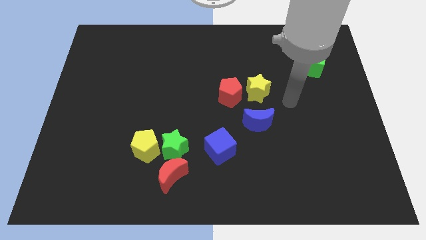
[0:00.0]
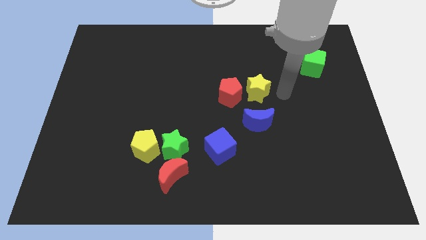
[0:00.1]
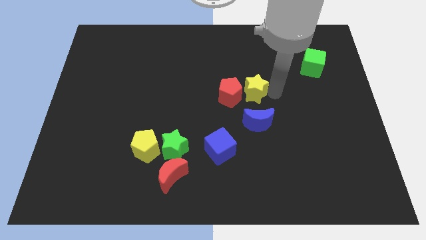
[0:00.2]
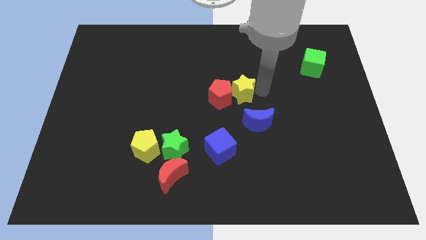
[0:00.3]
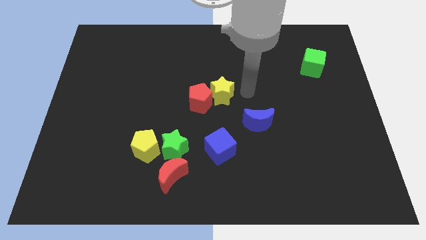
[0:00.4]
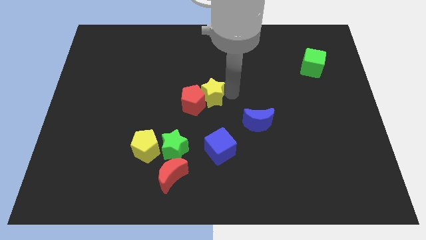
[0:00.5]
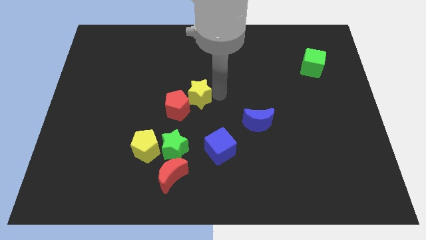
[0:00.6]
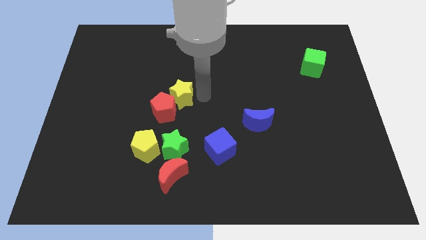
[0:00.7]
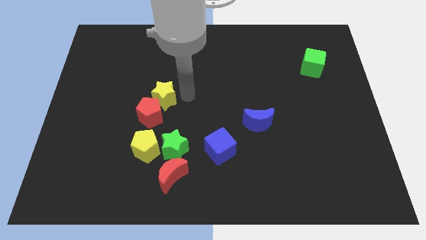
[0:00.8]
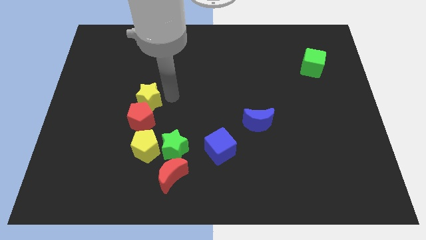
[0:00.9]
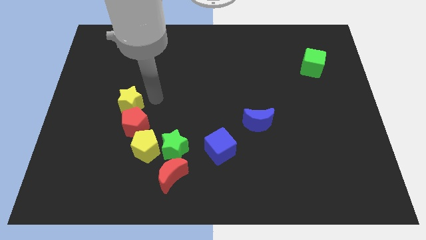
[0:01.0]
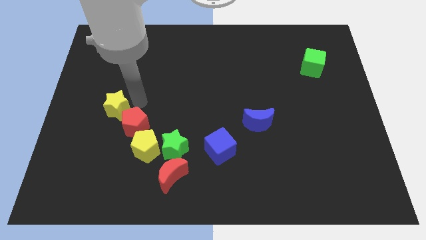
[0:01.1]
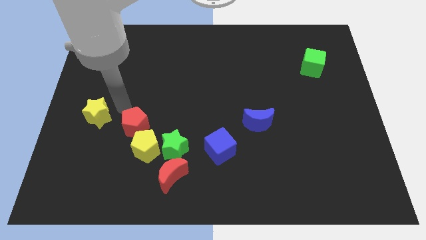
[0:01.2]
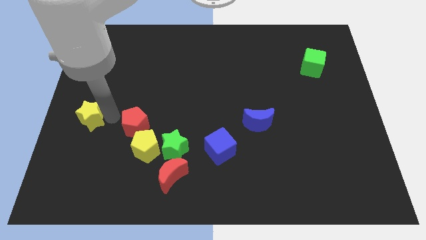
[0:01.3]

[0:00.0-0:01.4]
move the red pentagon away from the yellow star

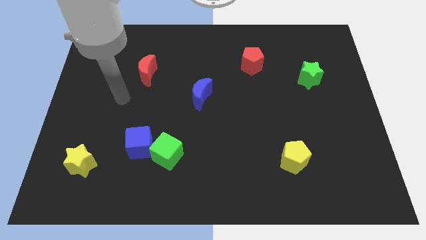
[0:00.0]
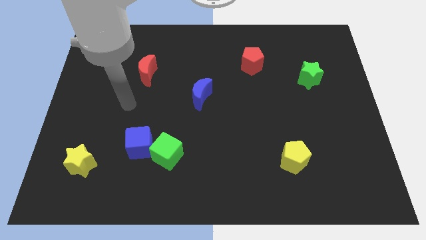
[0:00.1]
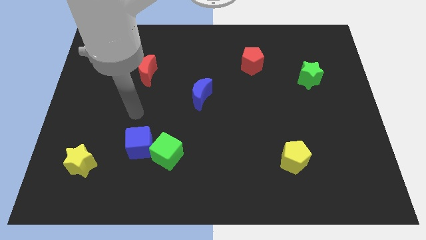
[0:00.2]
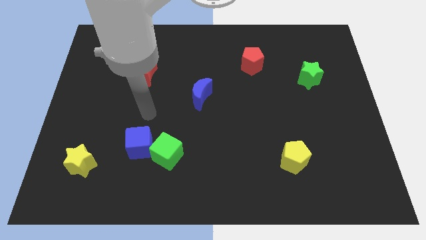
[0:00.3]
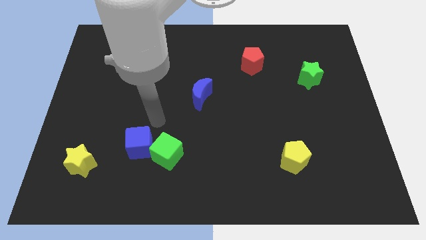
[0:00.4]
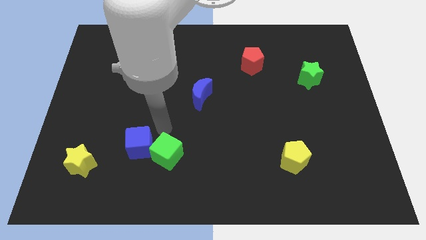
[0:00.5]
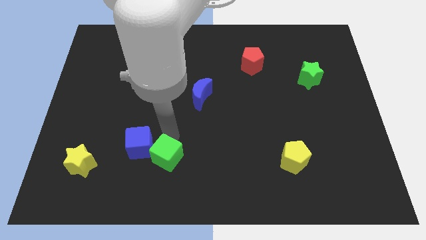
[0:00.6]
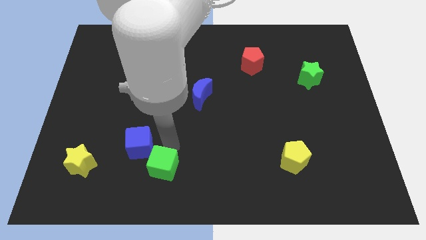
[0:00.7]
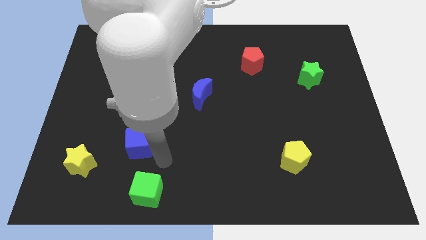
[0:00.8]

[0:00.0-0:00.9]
move the blue cube away from the green cube

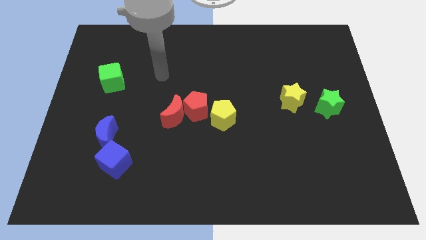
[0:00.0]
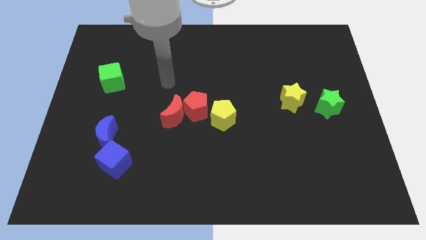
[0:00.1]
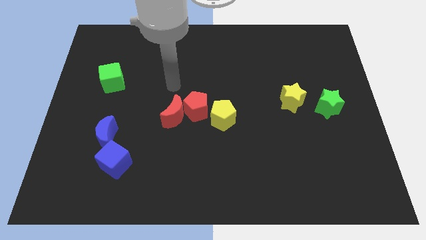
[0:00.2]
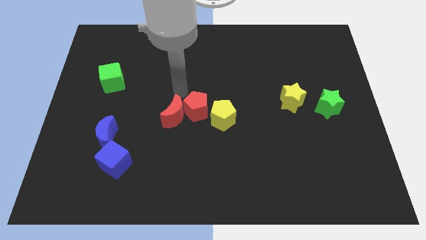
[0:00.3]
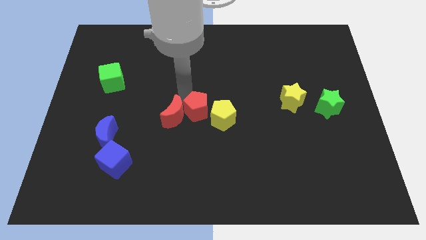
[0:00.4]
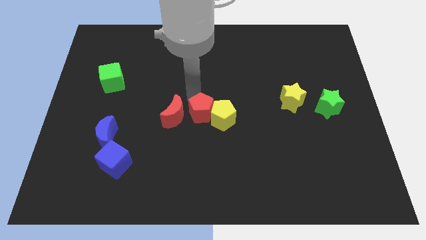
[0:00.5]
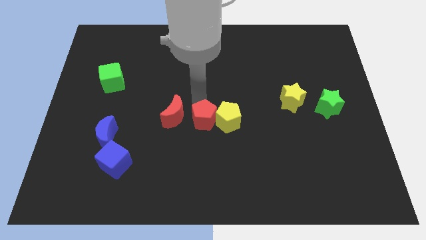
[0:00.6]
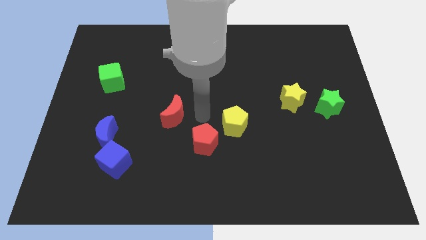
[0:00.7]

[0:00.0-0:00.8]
pull the red moon apart from the red pentagon

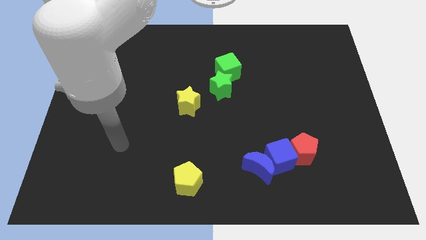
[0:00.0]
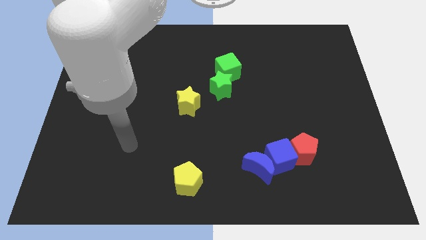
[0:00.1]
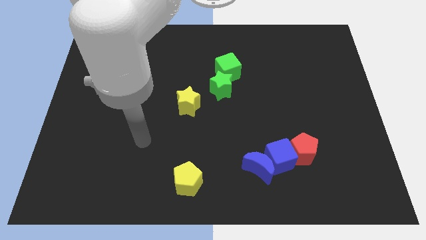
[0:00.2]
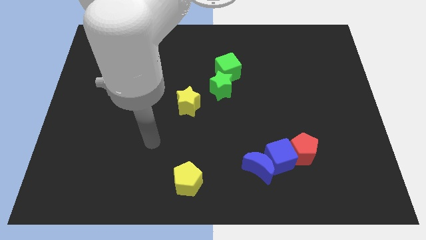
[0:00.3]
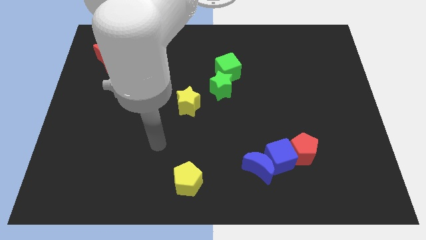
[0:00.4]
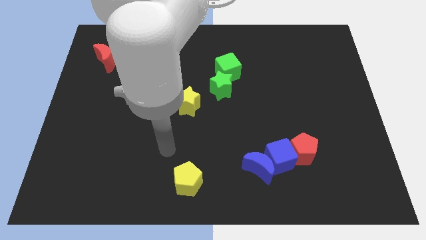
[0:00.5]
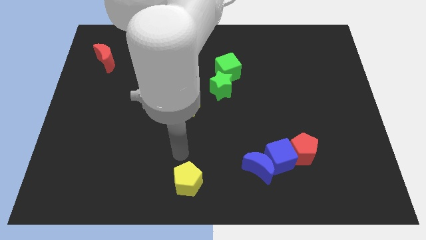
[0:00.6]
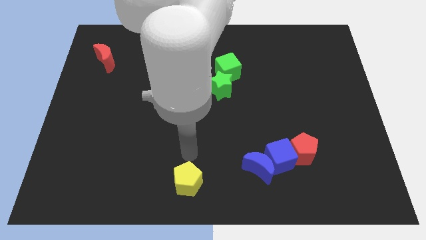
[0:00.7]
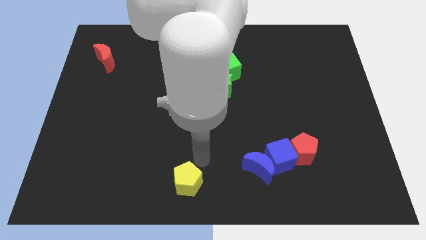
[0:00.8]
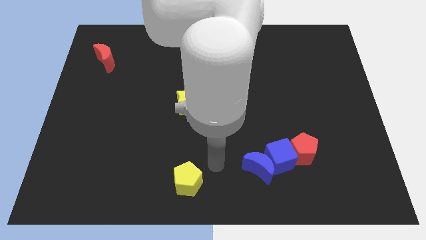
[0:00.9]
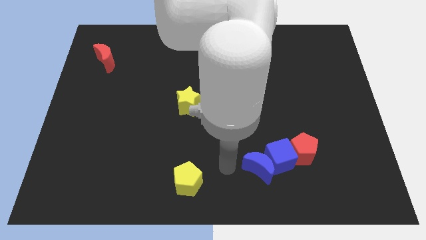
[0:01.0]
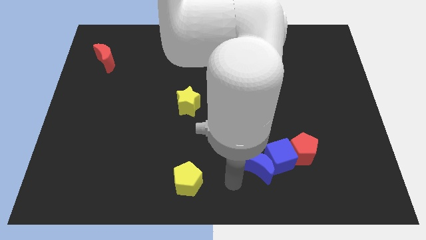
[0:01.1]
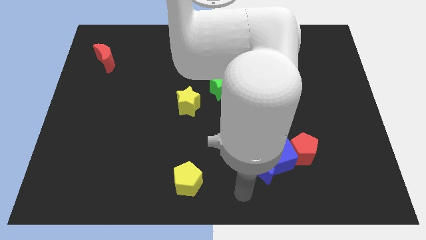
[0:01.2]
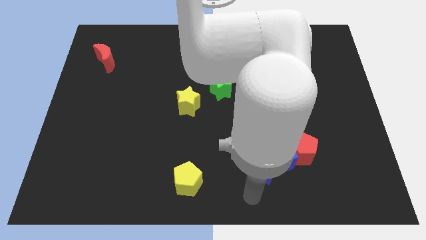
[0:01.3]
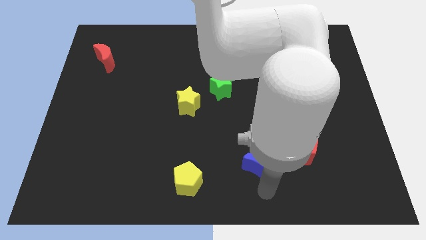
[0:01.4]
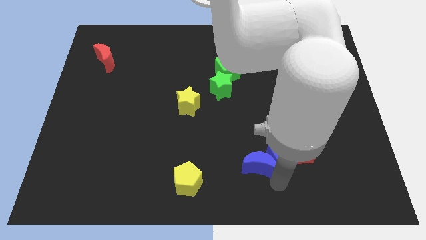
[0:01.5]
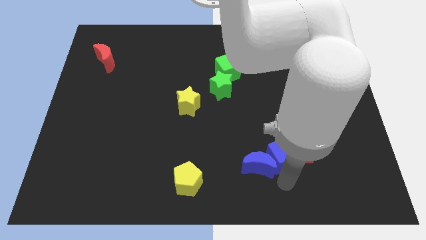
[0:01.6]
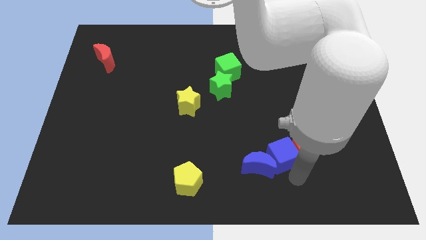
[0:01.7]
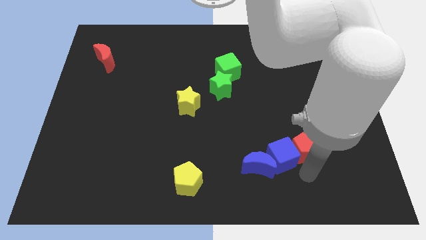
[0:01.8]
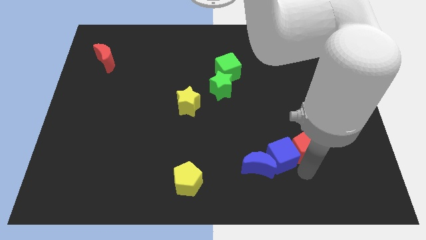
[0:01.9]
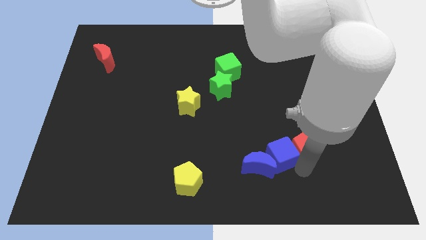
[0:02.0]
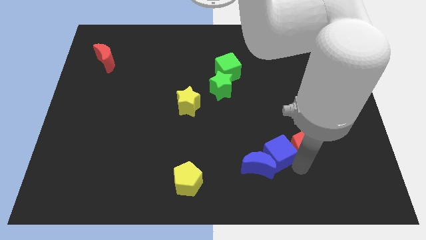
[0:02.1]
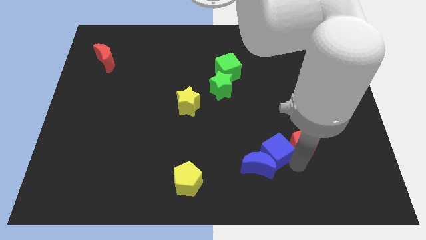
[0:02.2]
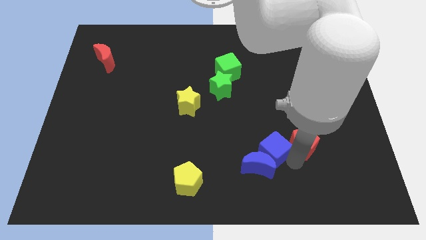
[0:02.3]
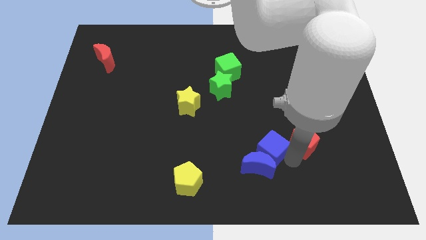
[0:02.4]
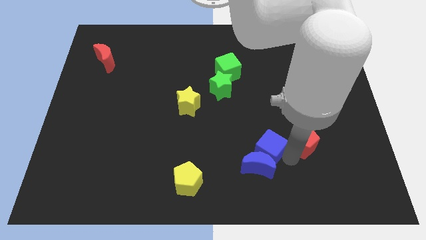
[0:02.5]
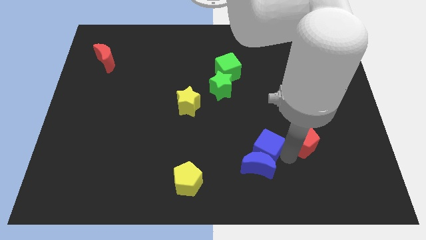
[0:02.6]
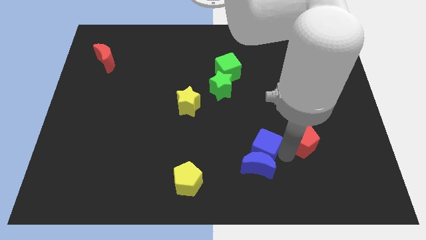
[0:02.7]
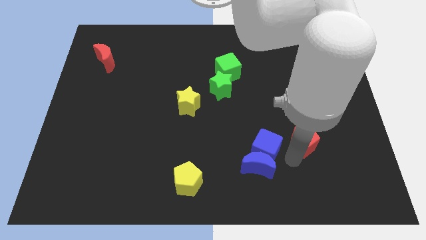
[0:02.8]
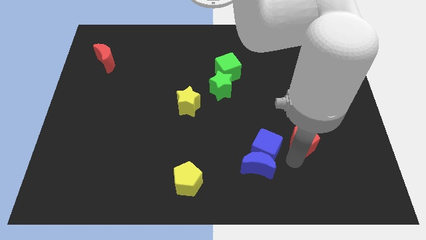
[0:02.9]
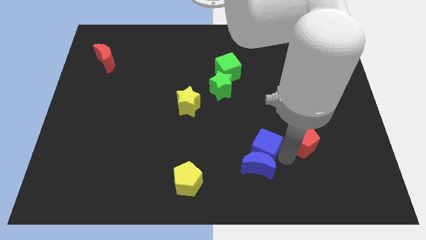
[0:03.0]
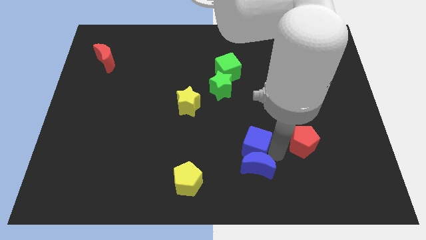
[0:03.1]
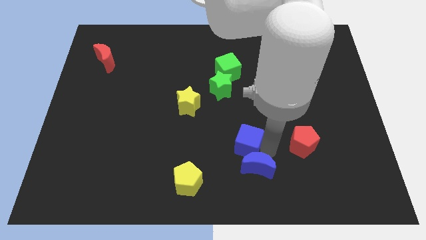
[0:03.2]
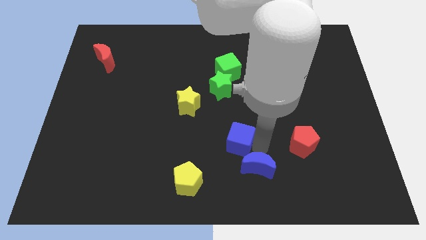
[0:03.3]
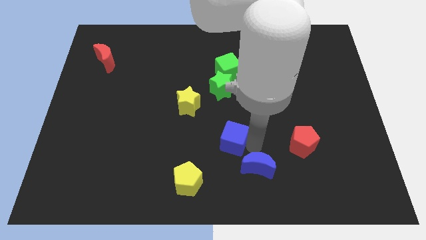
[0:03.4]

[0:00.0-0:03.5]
pull the blue cube apart from the blue moon and red pentagon

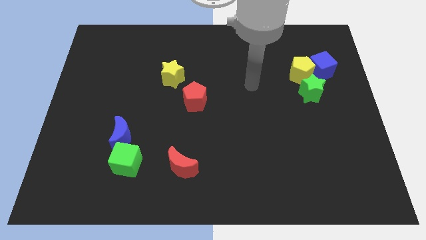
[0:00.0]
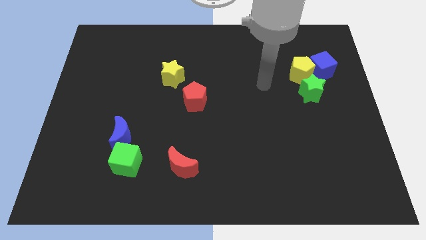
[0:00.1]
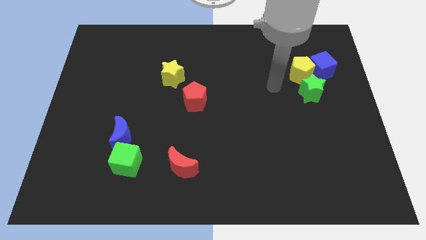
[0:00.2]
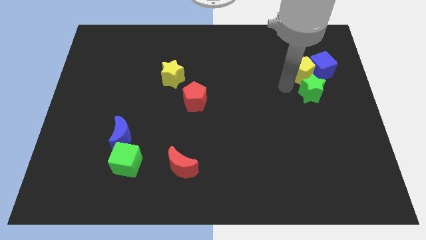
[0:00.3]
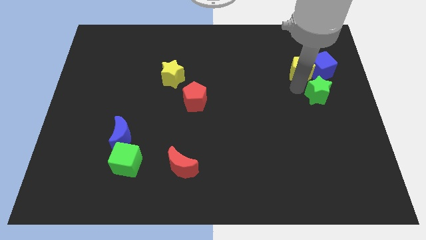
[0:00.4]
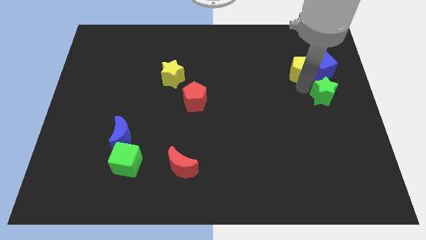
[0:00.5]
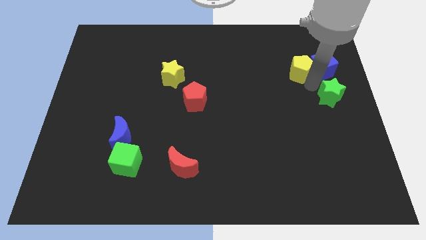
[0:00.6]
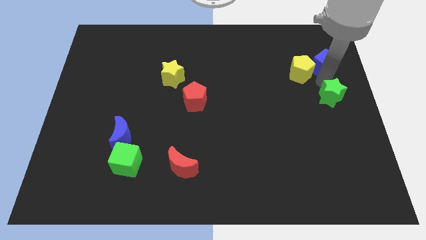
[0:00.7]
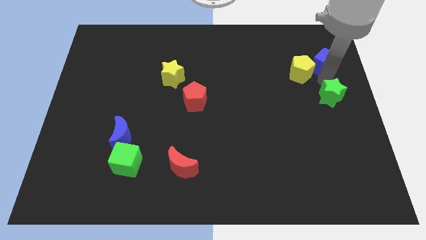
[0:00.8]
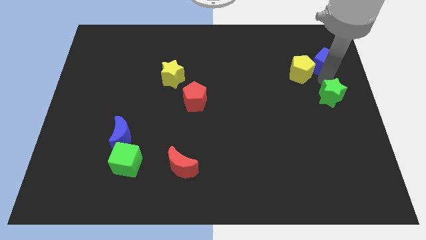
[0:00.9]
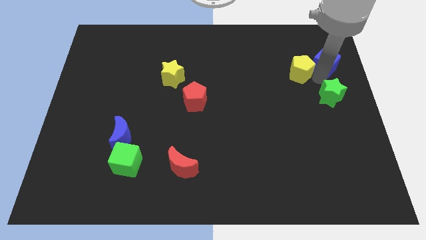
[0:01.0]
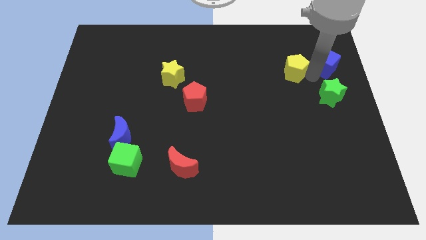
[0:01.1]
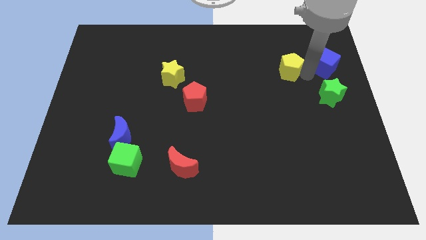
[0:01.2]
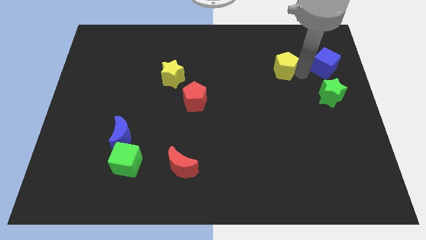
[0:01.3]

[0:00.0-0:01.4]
pull the yellow pentagon apart from the blue cube and green star

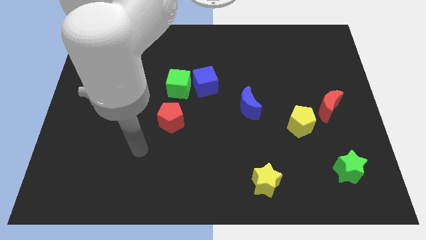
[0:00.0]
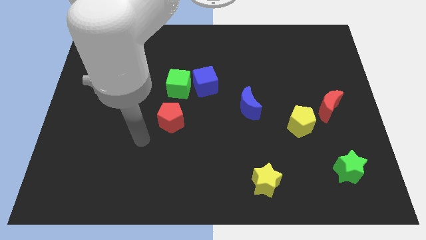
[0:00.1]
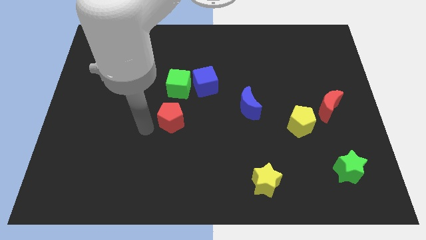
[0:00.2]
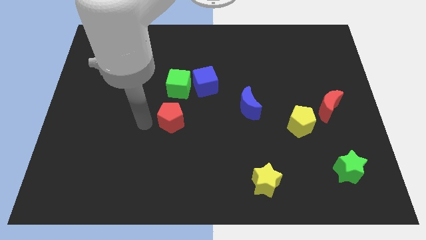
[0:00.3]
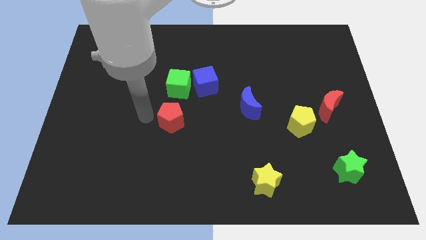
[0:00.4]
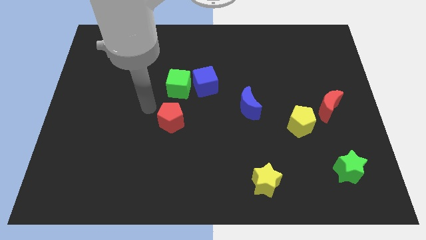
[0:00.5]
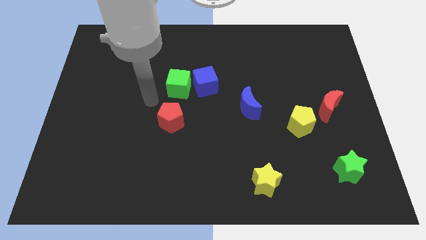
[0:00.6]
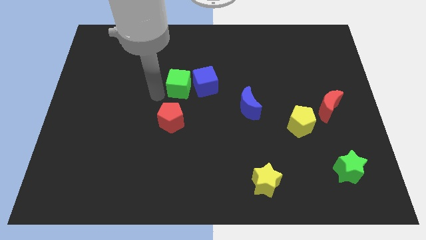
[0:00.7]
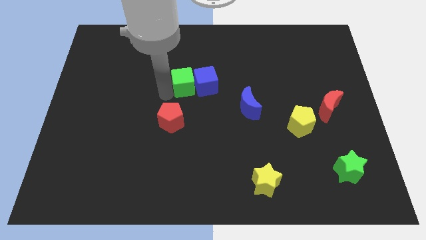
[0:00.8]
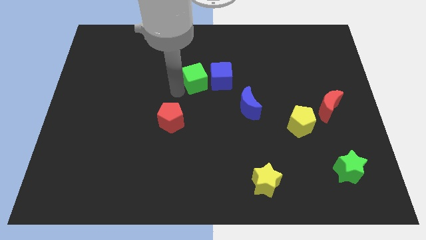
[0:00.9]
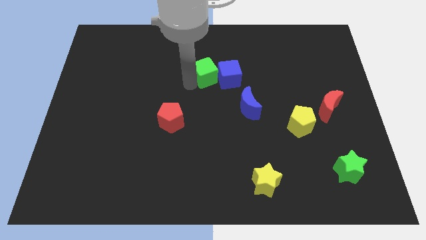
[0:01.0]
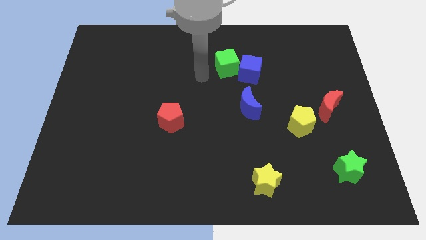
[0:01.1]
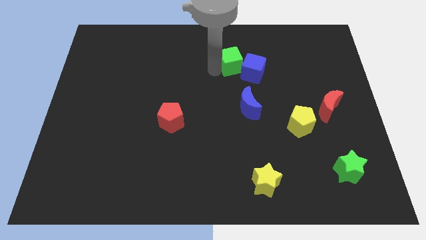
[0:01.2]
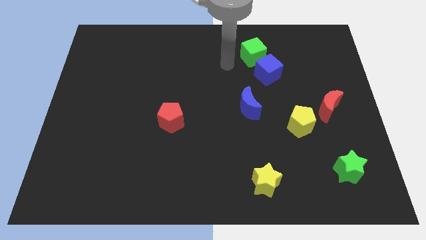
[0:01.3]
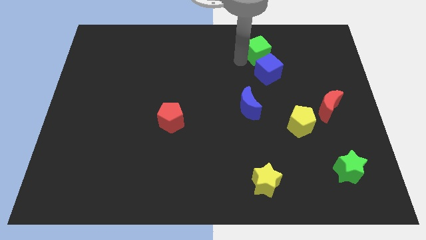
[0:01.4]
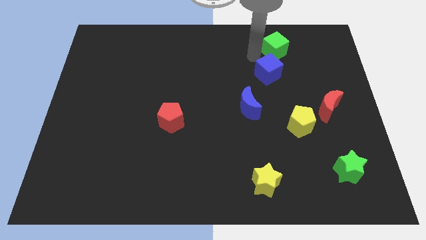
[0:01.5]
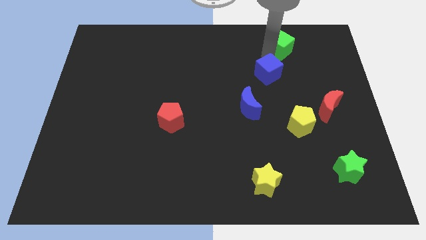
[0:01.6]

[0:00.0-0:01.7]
pull the blue cube apart from the green cube
